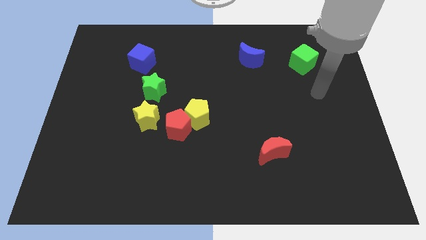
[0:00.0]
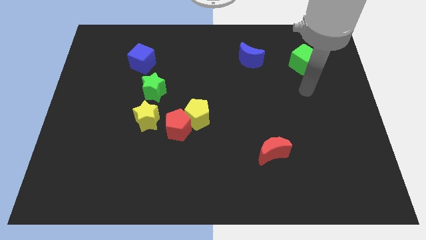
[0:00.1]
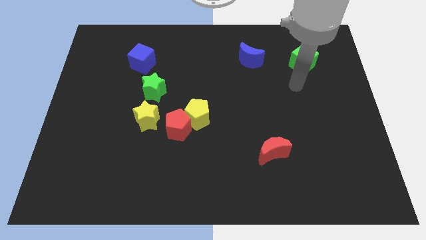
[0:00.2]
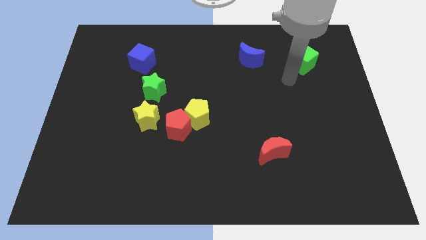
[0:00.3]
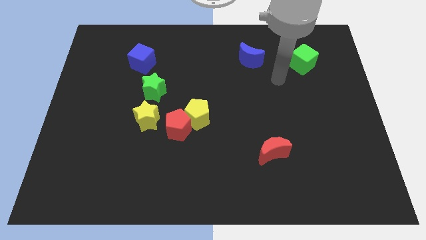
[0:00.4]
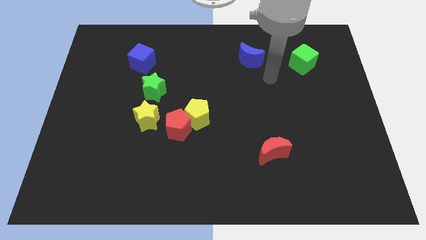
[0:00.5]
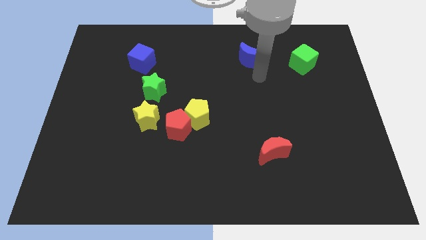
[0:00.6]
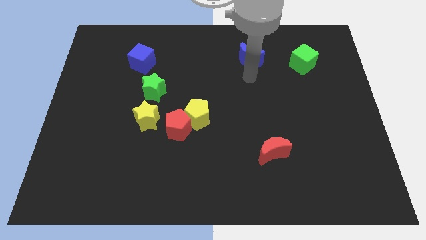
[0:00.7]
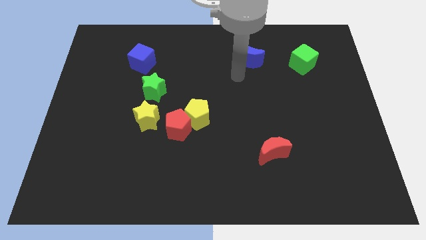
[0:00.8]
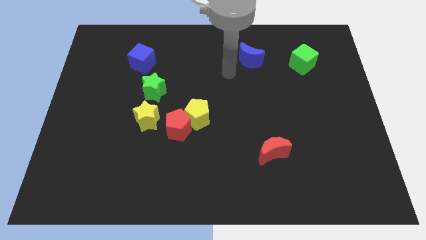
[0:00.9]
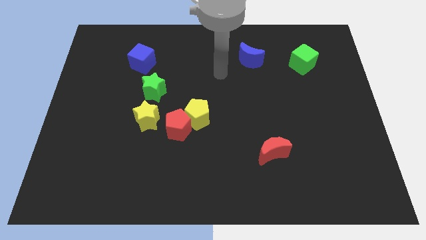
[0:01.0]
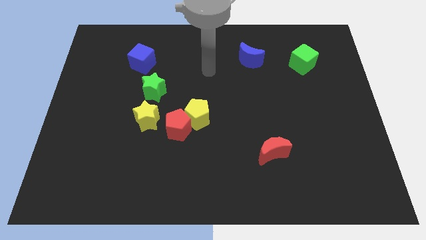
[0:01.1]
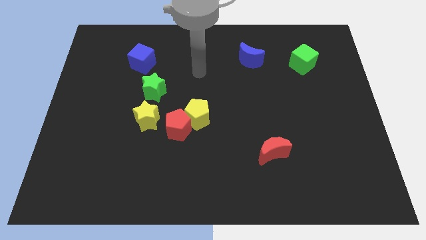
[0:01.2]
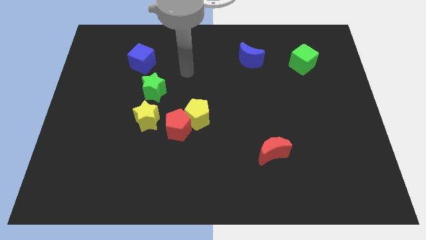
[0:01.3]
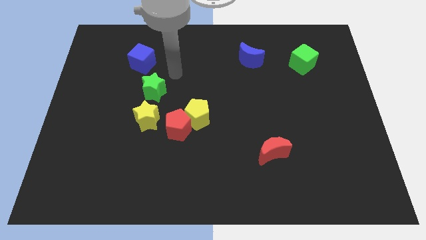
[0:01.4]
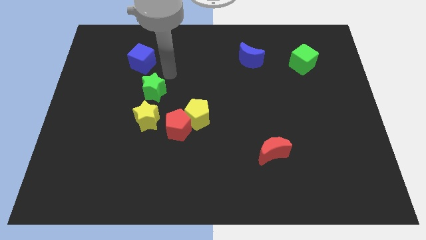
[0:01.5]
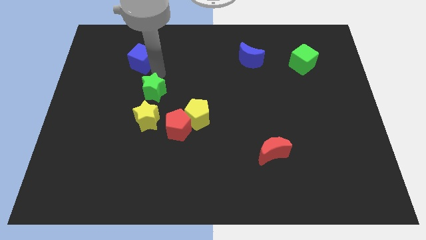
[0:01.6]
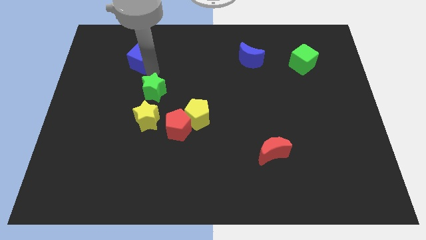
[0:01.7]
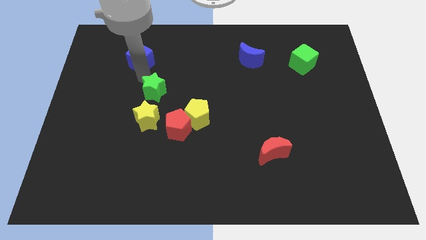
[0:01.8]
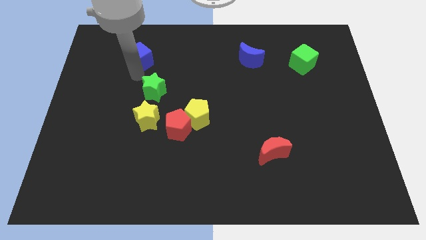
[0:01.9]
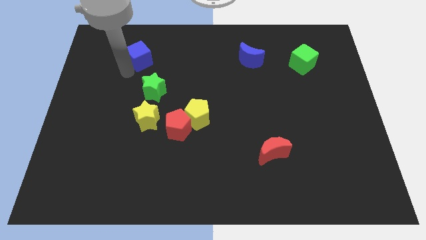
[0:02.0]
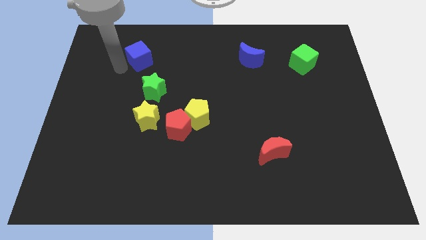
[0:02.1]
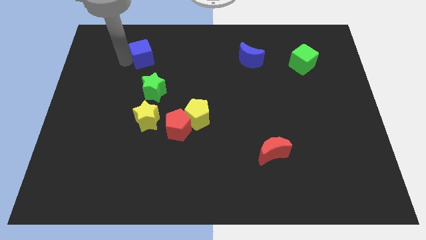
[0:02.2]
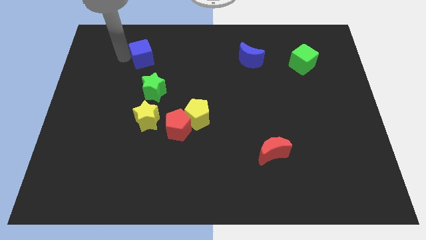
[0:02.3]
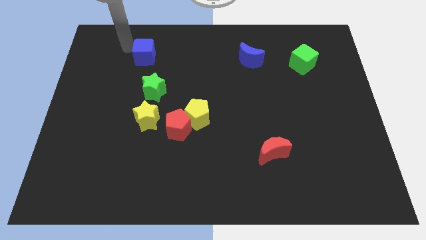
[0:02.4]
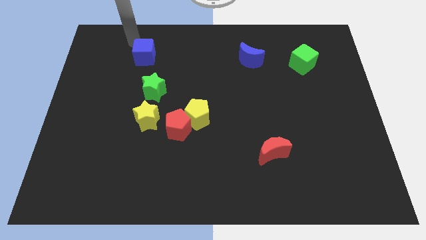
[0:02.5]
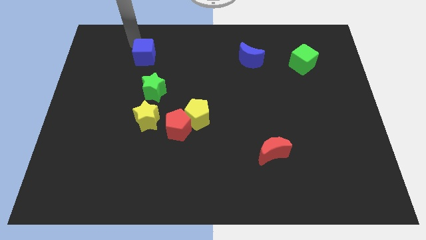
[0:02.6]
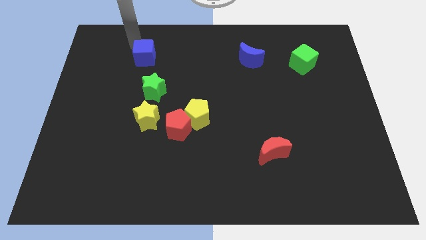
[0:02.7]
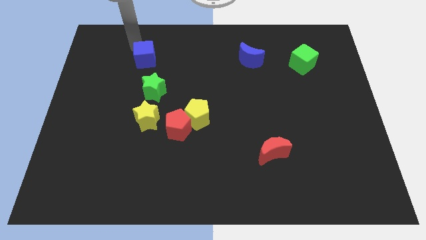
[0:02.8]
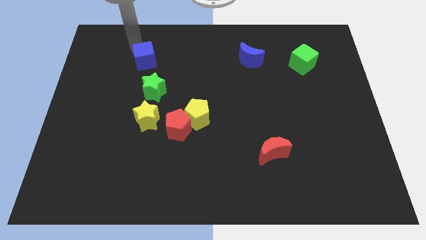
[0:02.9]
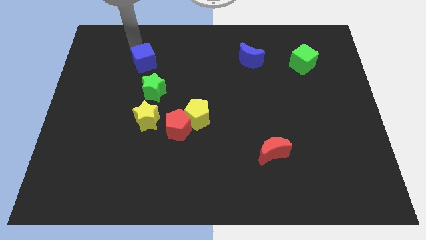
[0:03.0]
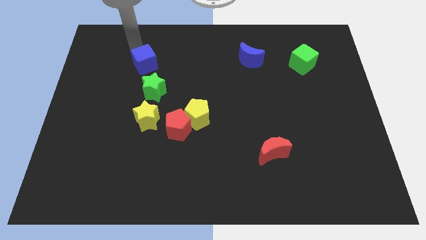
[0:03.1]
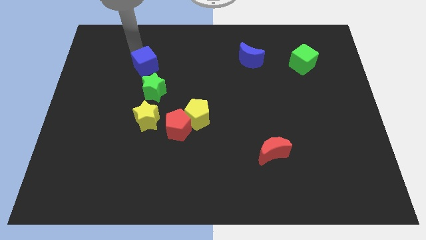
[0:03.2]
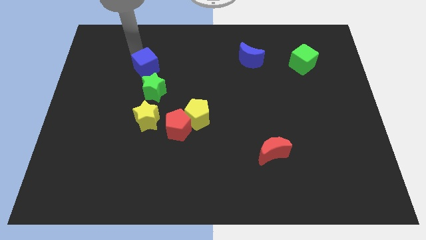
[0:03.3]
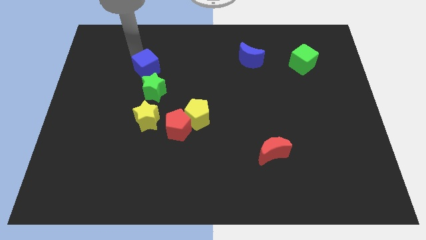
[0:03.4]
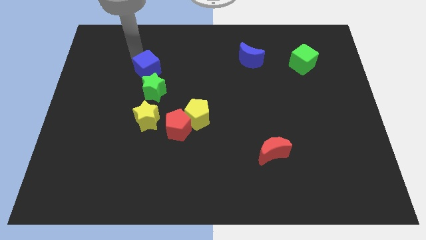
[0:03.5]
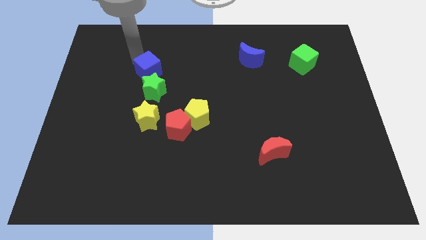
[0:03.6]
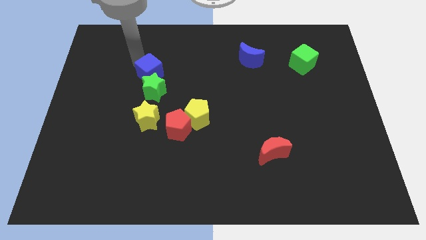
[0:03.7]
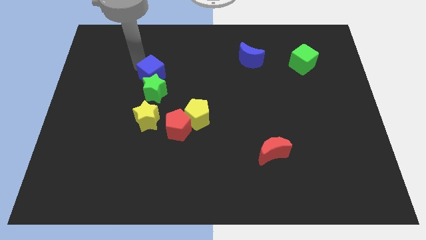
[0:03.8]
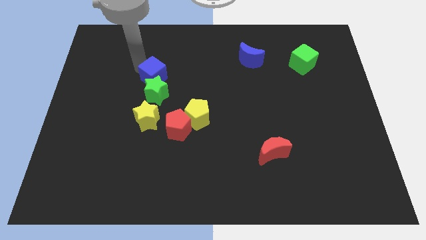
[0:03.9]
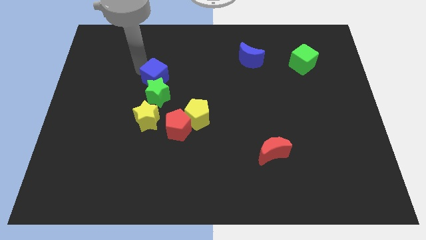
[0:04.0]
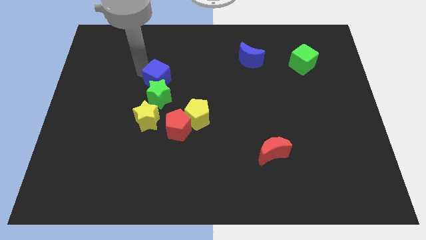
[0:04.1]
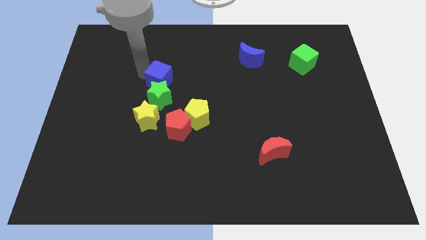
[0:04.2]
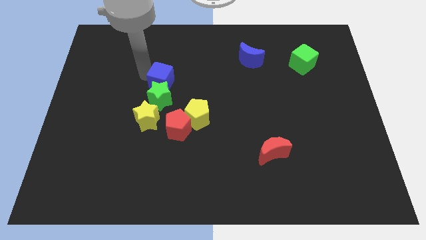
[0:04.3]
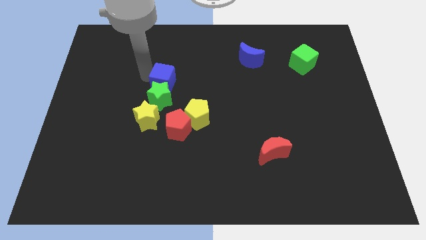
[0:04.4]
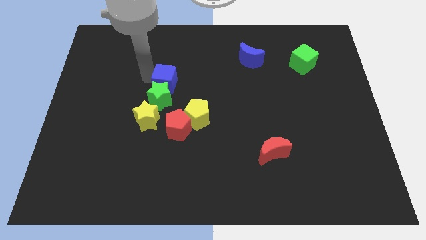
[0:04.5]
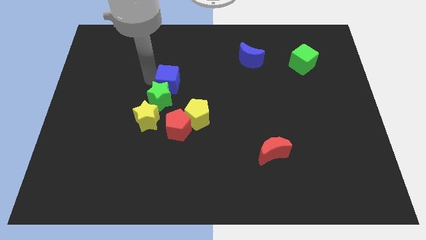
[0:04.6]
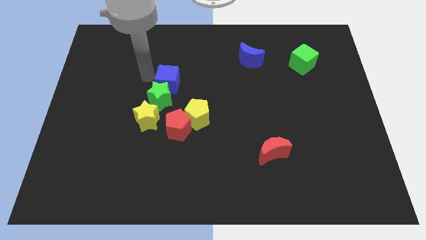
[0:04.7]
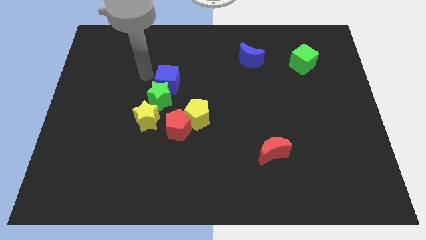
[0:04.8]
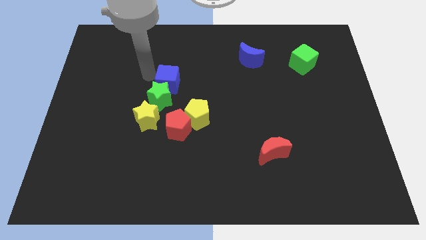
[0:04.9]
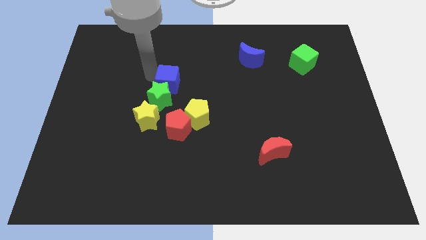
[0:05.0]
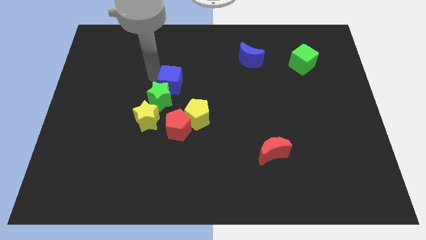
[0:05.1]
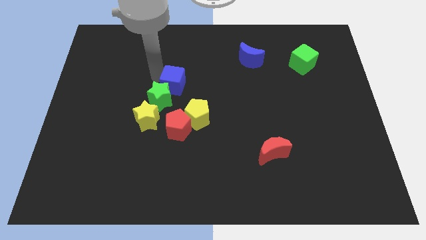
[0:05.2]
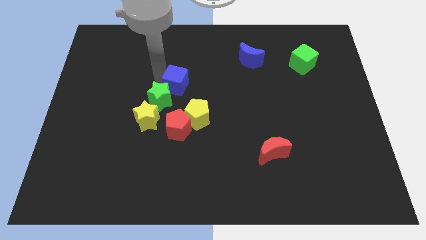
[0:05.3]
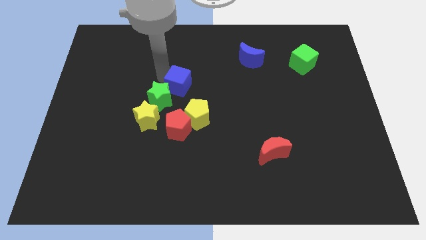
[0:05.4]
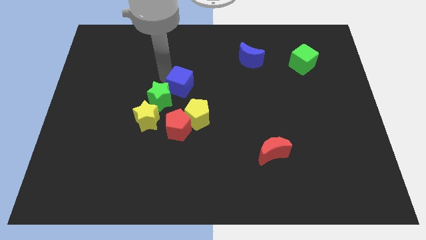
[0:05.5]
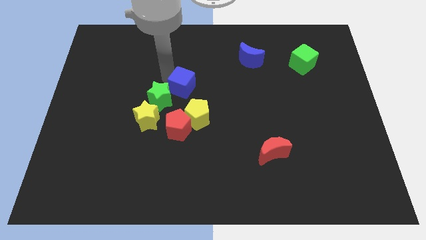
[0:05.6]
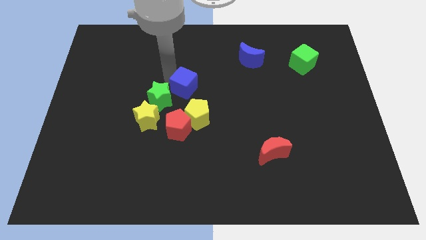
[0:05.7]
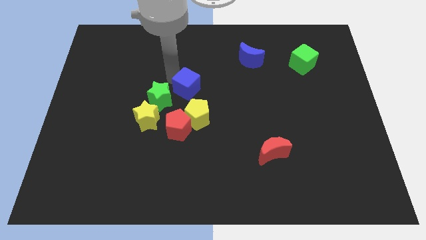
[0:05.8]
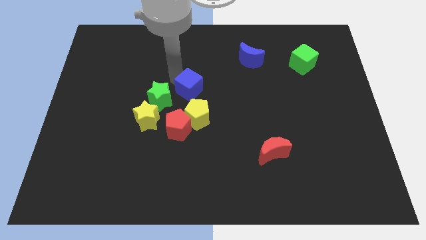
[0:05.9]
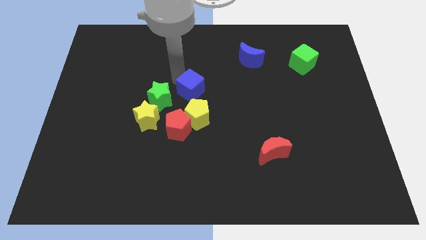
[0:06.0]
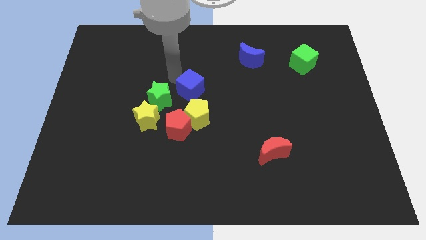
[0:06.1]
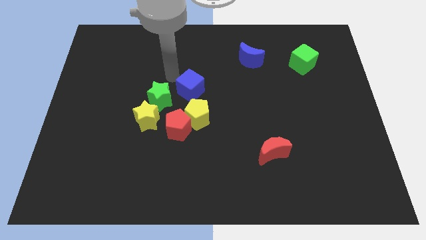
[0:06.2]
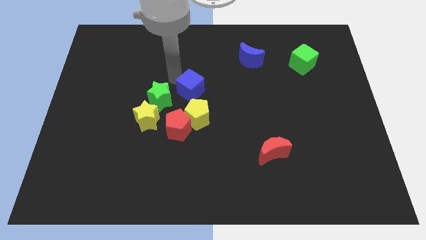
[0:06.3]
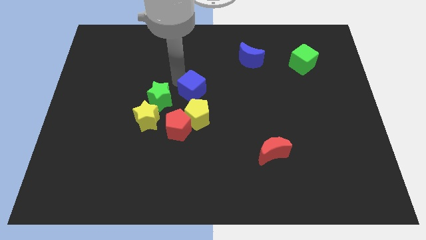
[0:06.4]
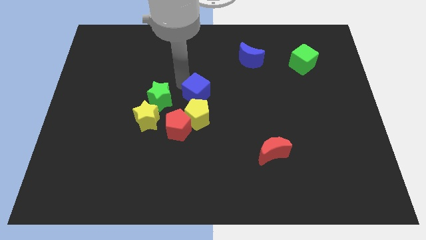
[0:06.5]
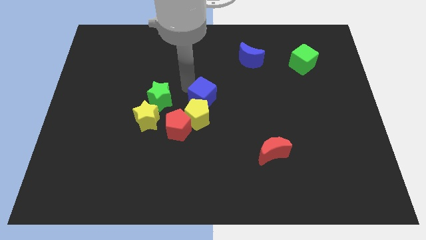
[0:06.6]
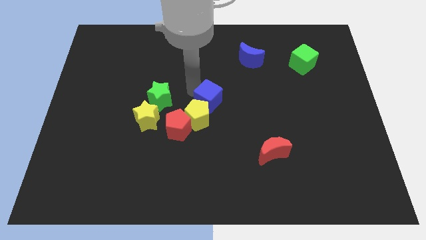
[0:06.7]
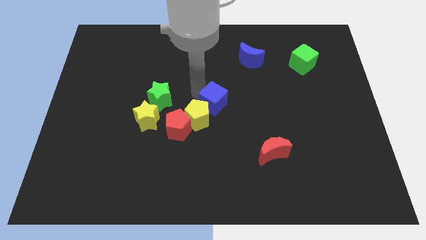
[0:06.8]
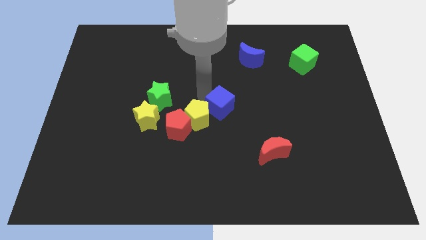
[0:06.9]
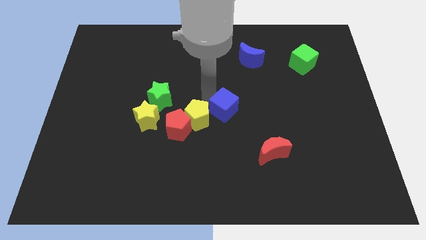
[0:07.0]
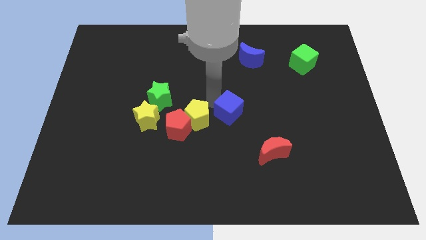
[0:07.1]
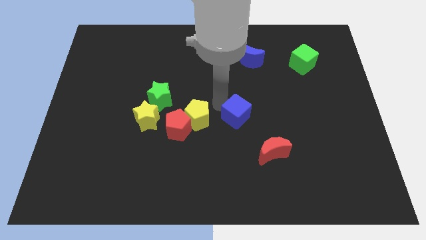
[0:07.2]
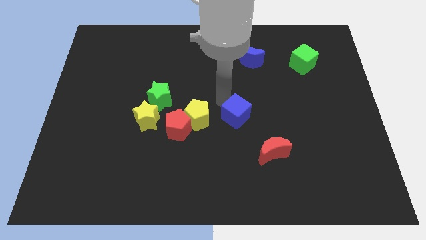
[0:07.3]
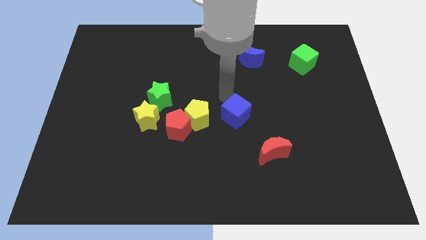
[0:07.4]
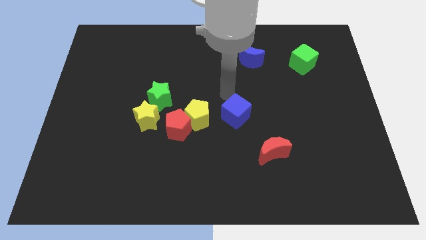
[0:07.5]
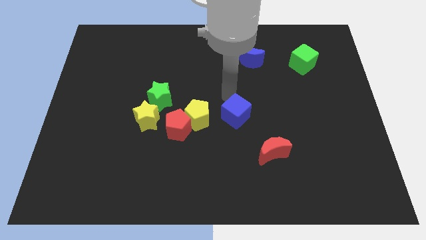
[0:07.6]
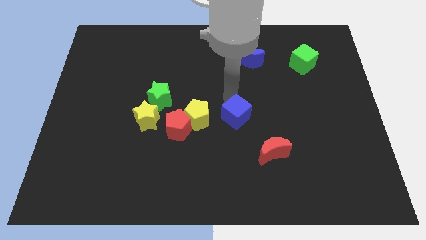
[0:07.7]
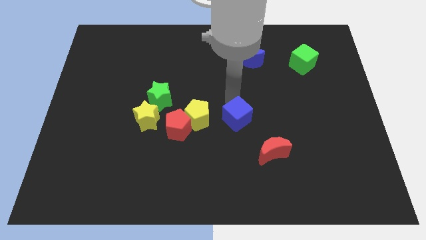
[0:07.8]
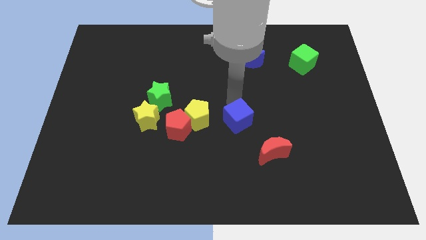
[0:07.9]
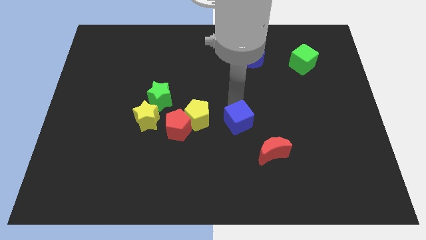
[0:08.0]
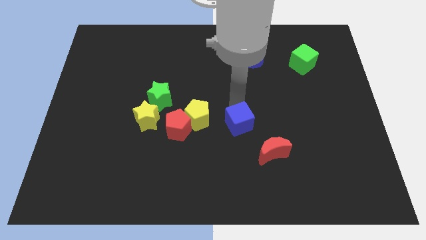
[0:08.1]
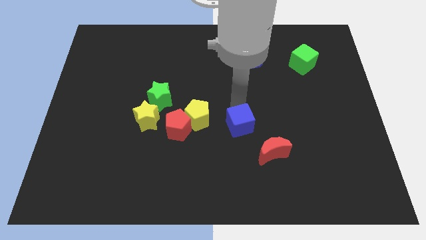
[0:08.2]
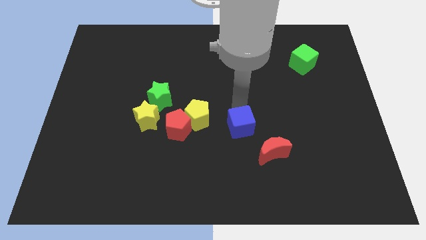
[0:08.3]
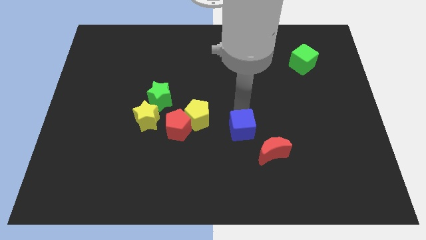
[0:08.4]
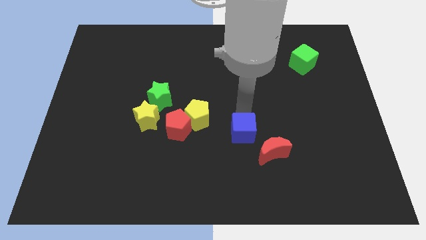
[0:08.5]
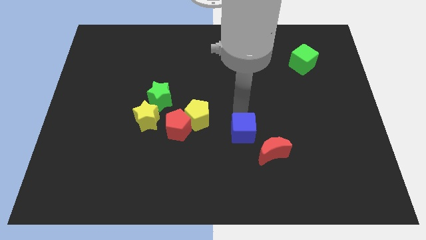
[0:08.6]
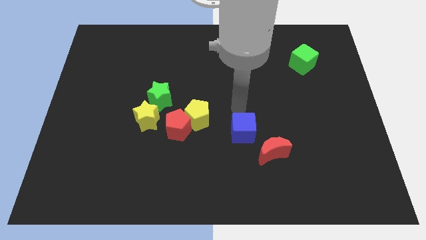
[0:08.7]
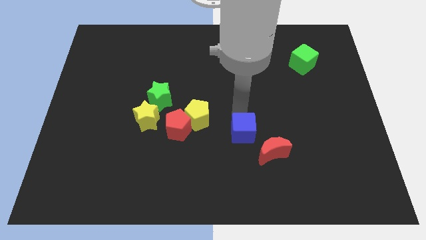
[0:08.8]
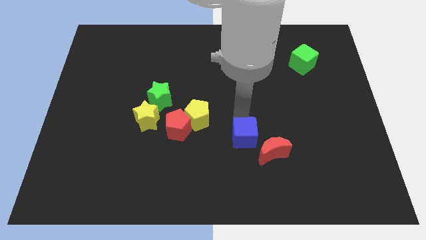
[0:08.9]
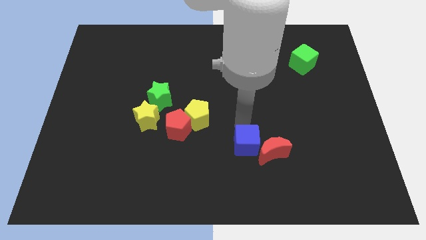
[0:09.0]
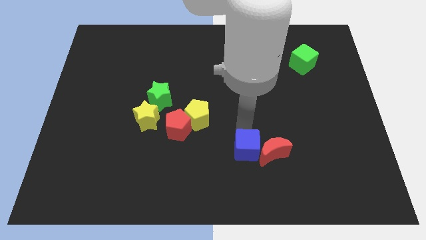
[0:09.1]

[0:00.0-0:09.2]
put the blue cube diagonally down and to the left of the red moon
